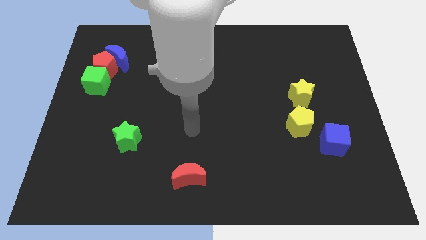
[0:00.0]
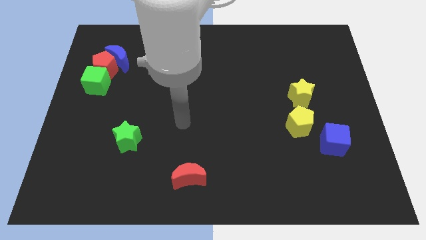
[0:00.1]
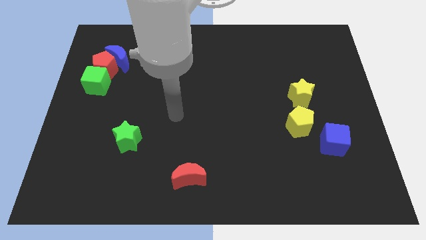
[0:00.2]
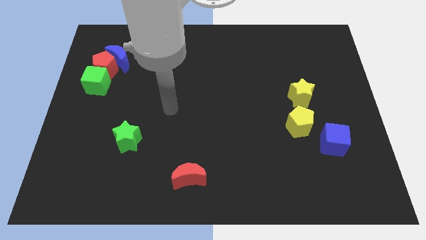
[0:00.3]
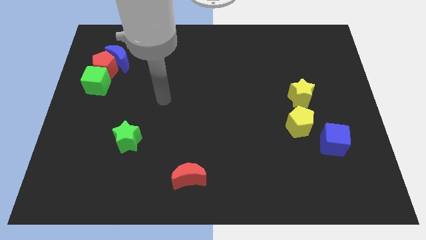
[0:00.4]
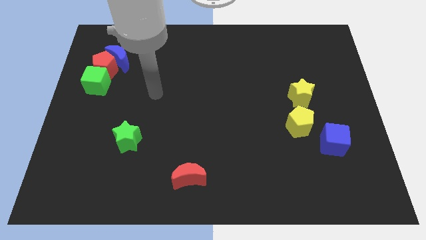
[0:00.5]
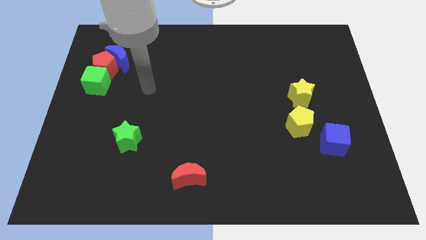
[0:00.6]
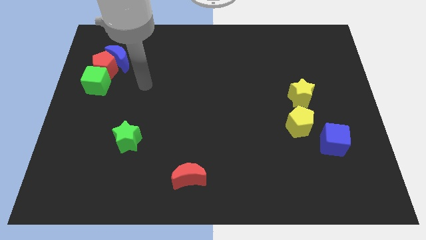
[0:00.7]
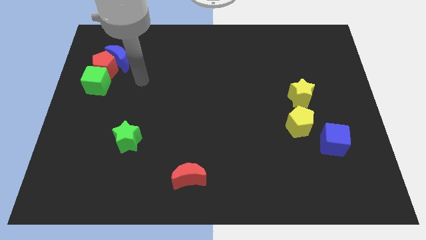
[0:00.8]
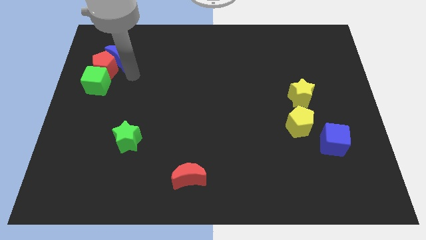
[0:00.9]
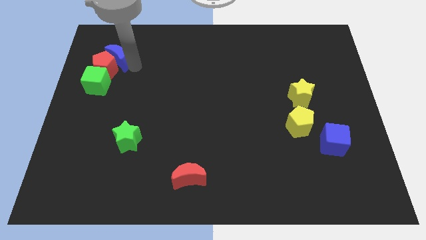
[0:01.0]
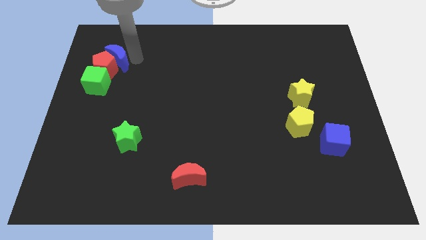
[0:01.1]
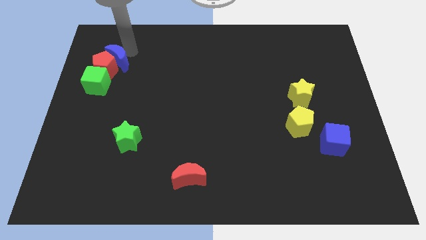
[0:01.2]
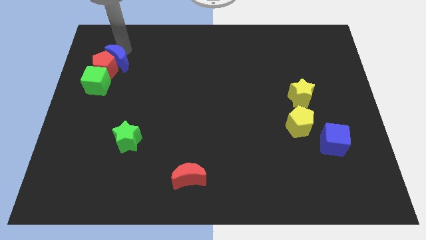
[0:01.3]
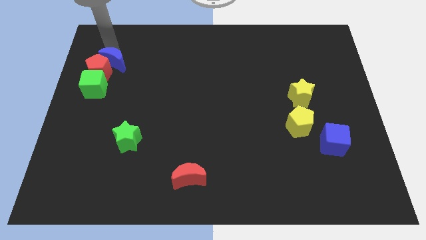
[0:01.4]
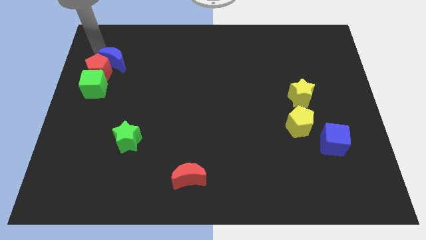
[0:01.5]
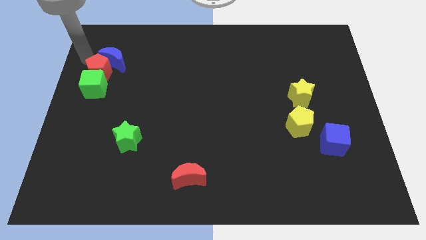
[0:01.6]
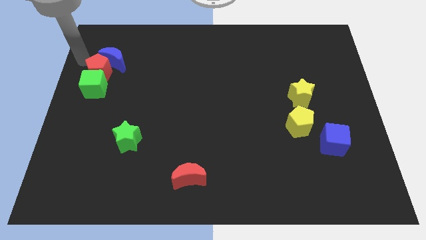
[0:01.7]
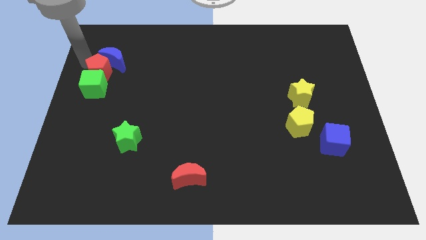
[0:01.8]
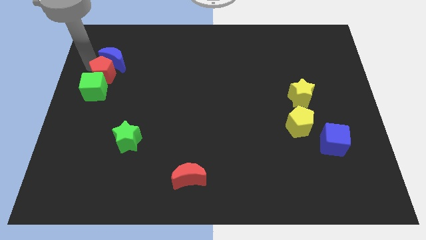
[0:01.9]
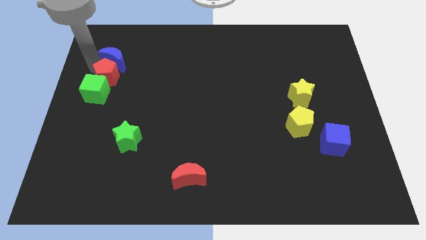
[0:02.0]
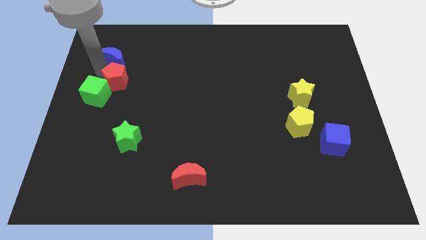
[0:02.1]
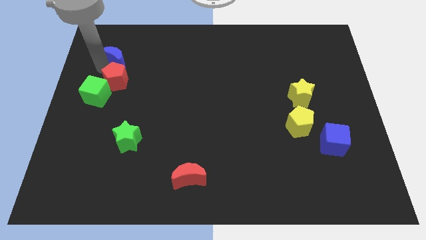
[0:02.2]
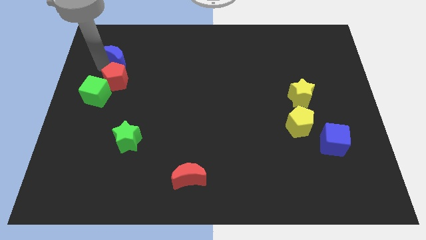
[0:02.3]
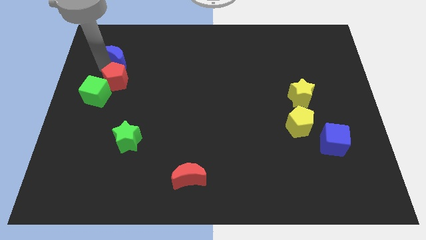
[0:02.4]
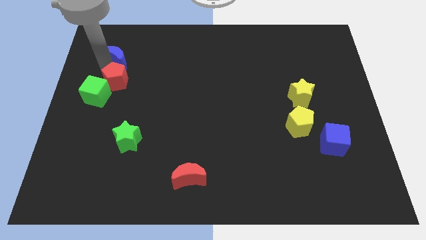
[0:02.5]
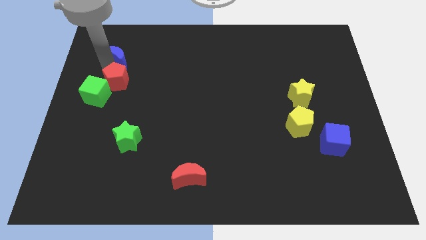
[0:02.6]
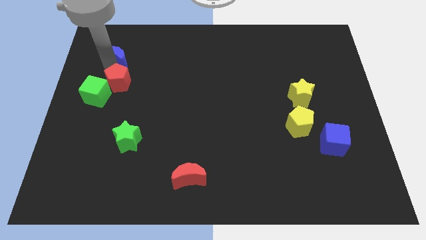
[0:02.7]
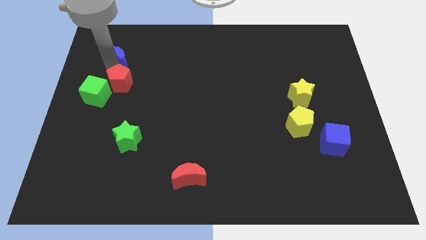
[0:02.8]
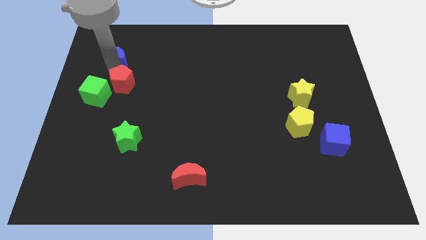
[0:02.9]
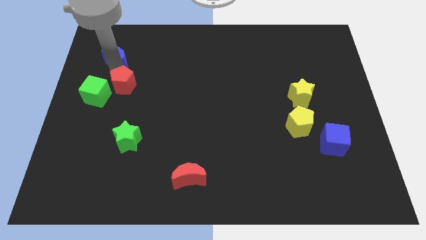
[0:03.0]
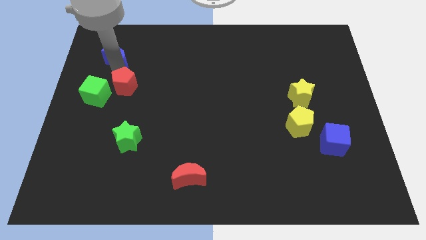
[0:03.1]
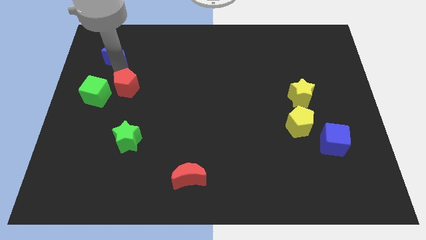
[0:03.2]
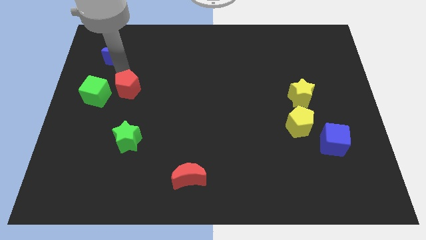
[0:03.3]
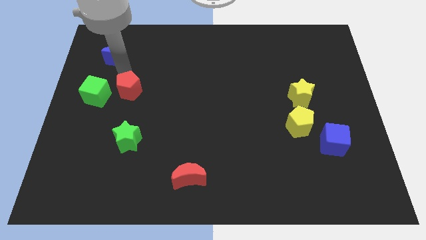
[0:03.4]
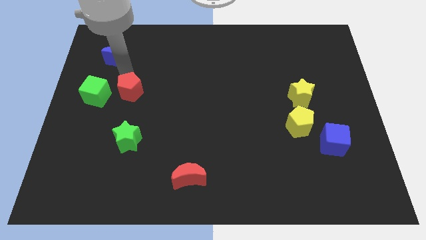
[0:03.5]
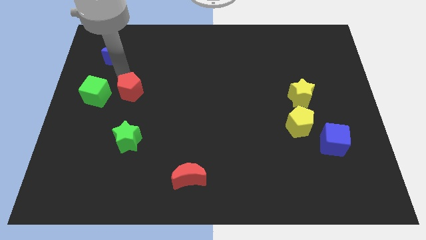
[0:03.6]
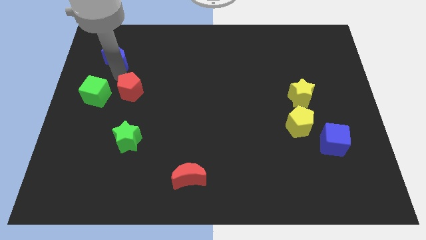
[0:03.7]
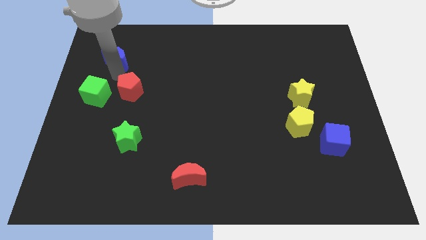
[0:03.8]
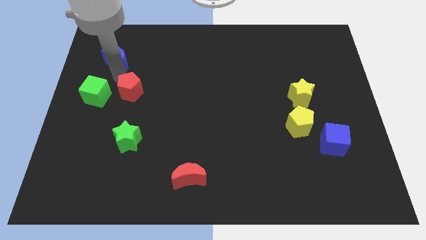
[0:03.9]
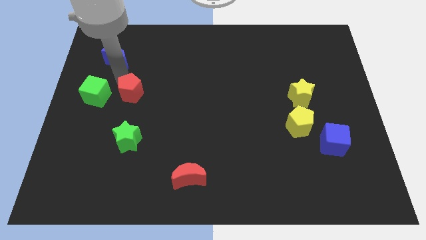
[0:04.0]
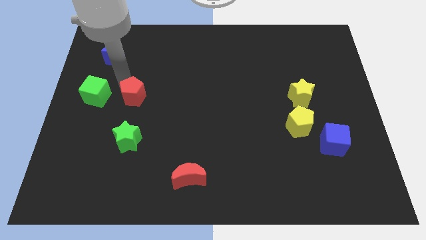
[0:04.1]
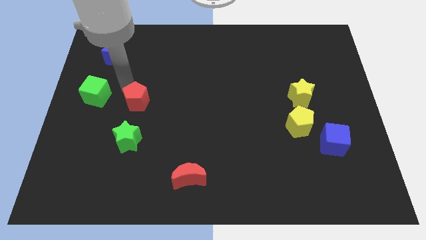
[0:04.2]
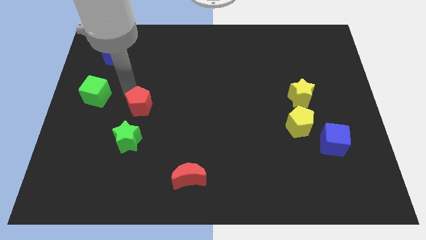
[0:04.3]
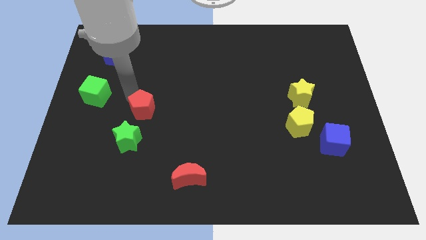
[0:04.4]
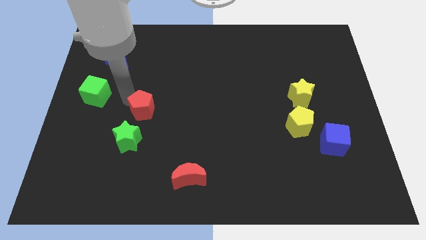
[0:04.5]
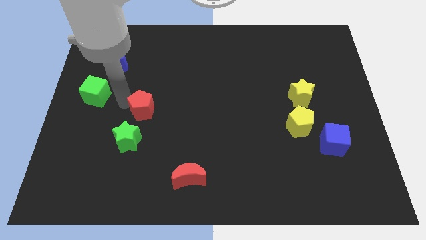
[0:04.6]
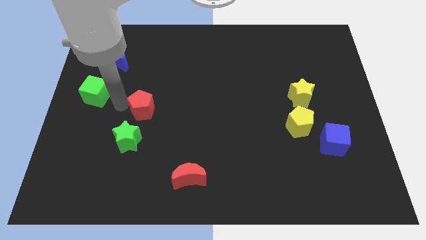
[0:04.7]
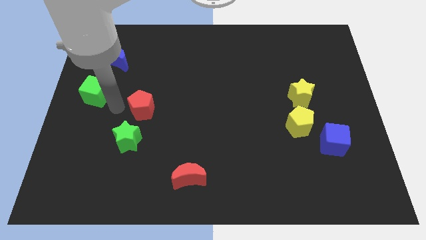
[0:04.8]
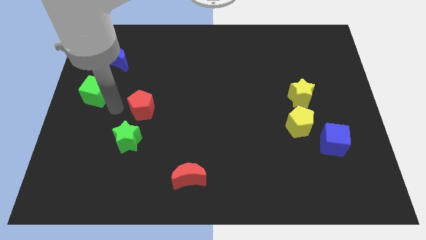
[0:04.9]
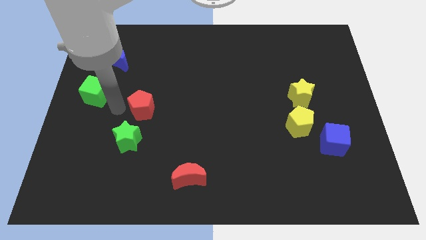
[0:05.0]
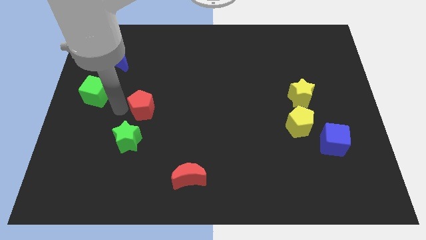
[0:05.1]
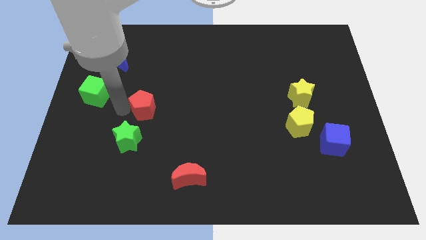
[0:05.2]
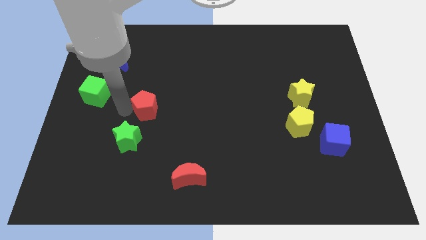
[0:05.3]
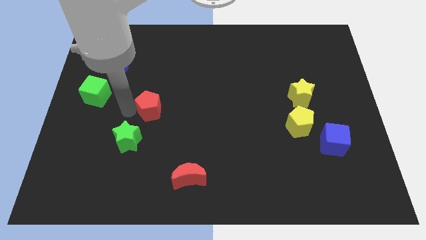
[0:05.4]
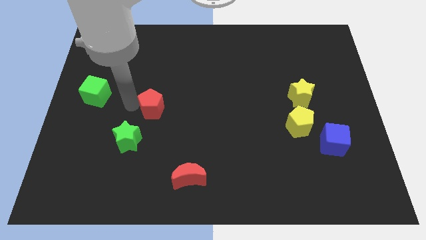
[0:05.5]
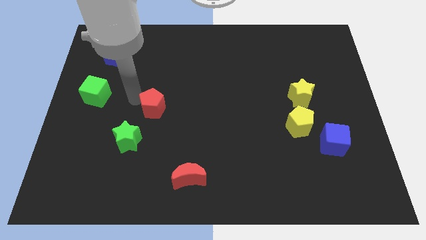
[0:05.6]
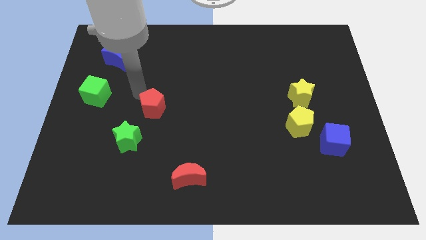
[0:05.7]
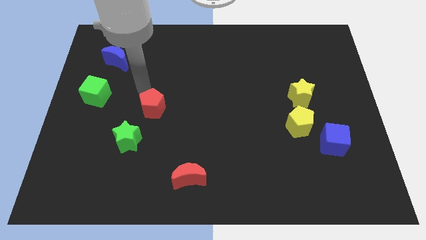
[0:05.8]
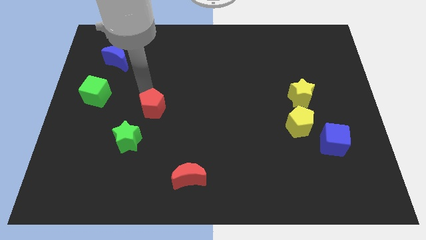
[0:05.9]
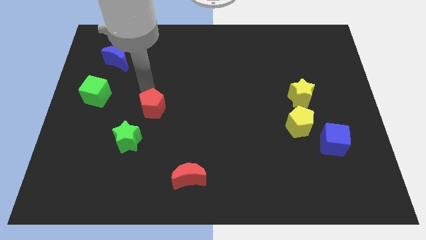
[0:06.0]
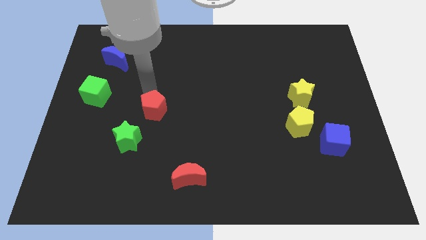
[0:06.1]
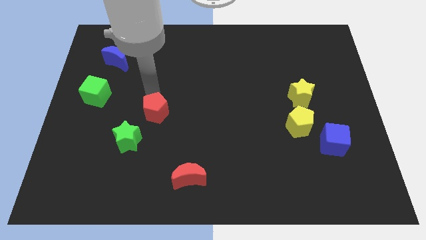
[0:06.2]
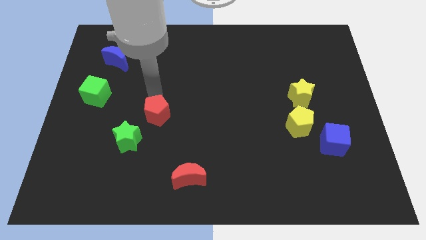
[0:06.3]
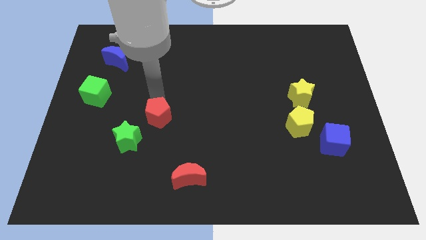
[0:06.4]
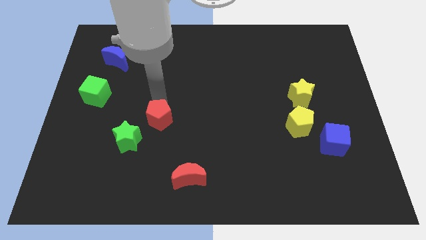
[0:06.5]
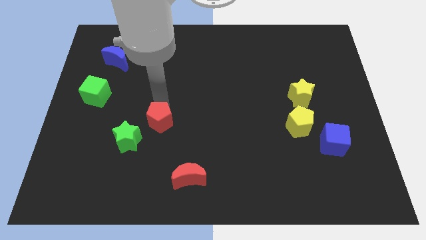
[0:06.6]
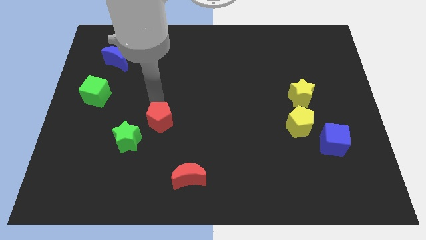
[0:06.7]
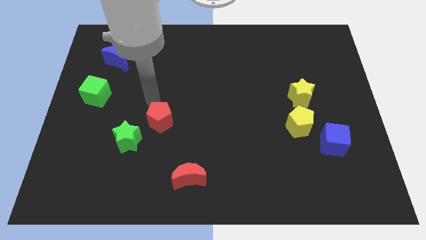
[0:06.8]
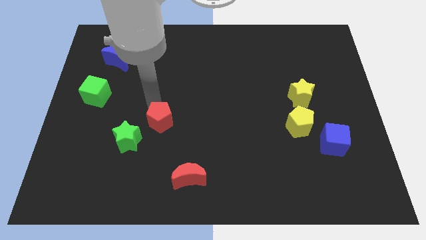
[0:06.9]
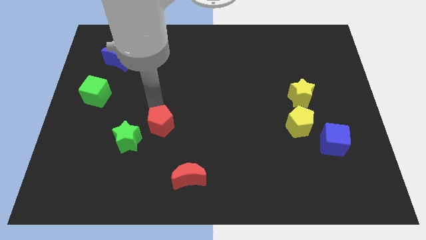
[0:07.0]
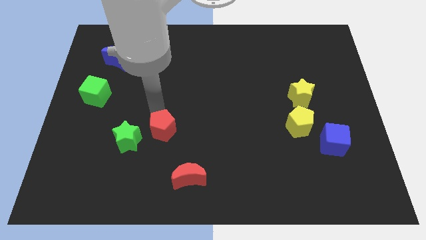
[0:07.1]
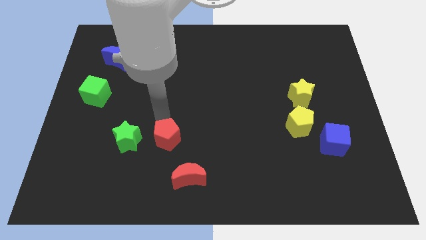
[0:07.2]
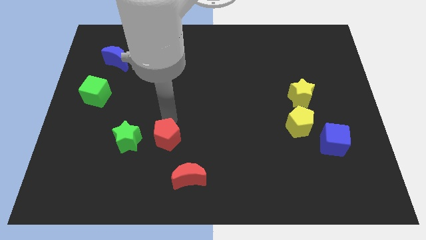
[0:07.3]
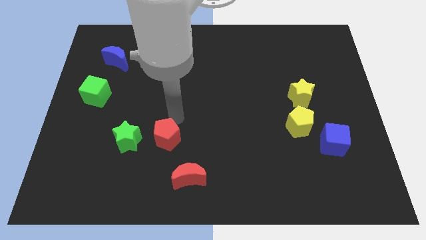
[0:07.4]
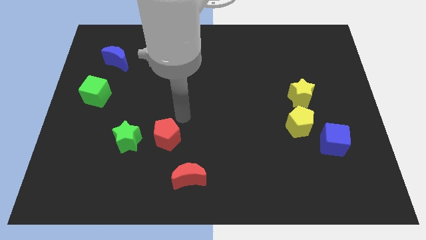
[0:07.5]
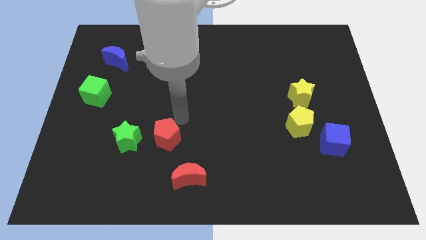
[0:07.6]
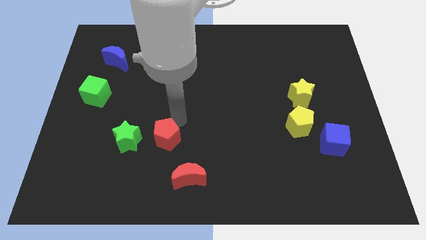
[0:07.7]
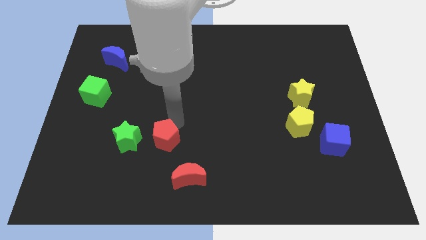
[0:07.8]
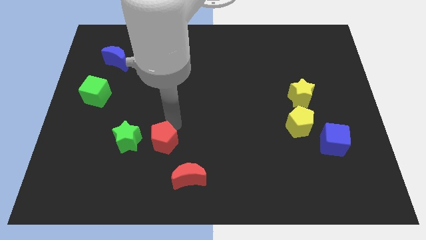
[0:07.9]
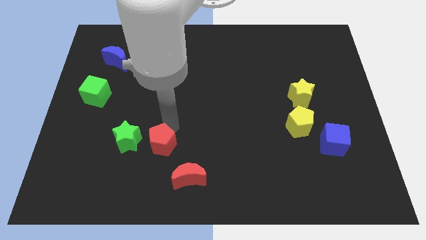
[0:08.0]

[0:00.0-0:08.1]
move the red pentagon to the bottom right side of the green star

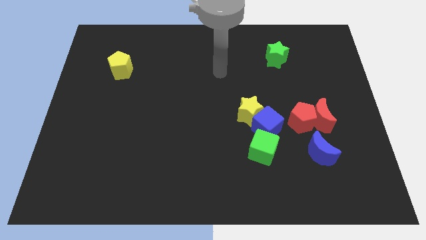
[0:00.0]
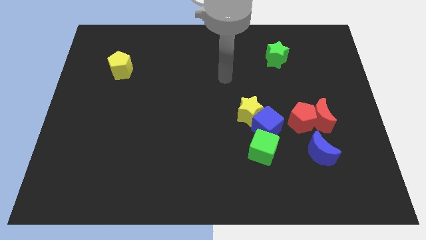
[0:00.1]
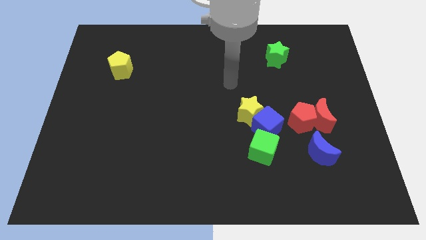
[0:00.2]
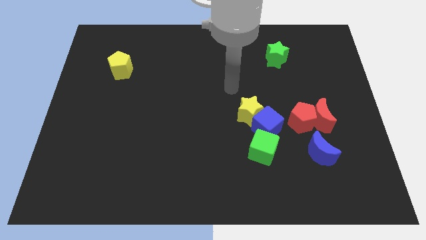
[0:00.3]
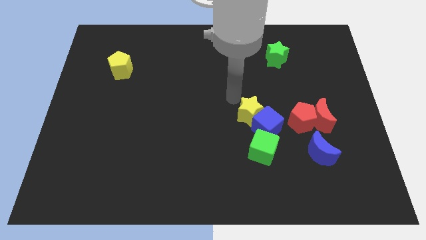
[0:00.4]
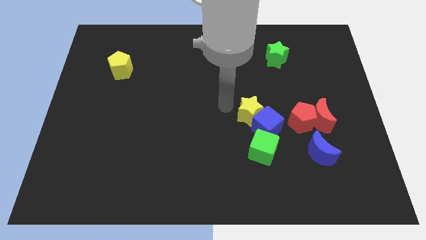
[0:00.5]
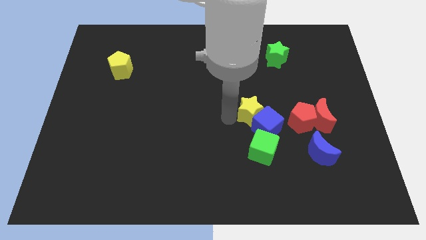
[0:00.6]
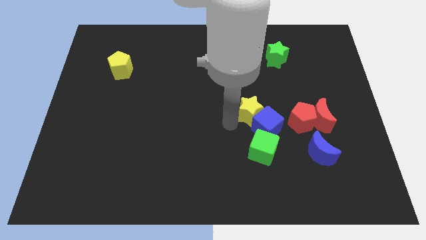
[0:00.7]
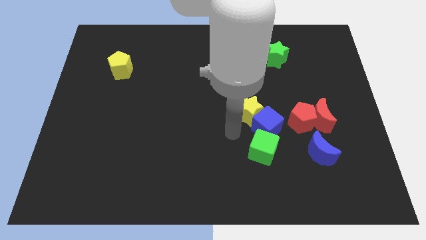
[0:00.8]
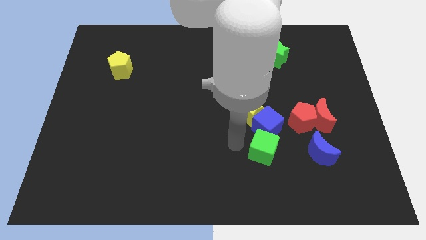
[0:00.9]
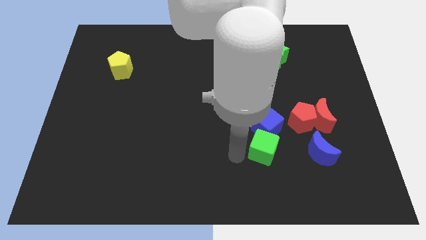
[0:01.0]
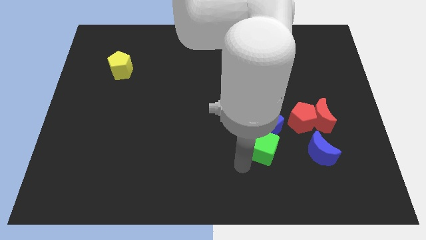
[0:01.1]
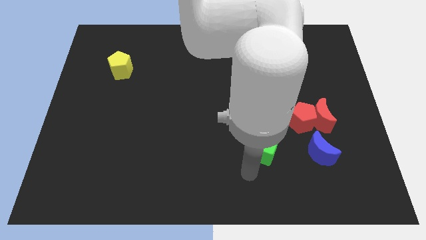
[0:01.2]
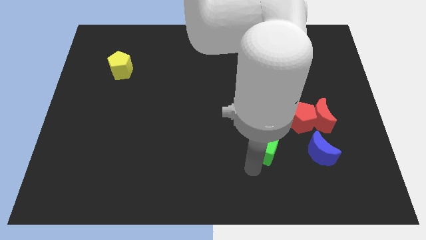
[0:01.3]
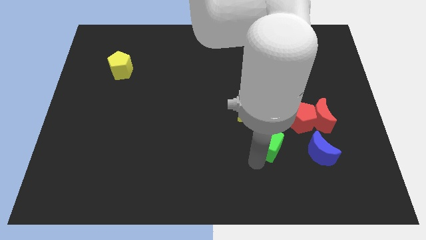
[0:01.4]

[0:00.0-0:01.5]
put the green cube diagonally down and to the right of the yellow star
